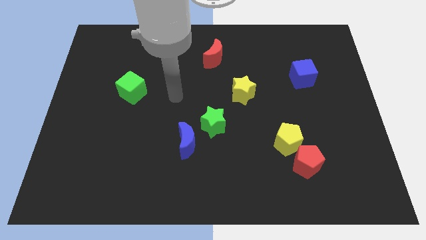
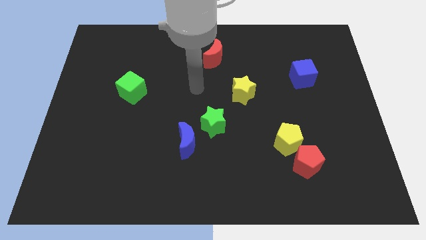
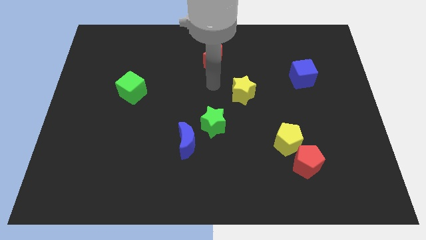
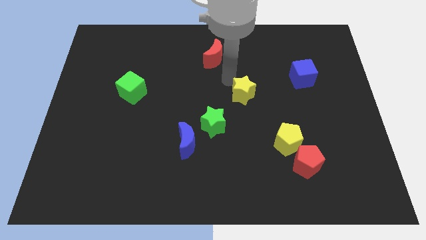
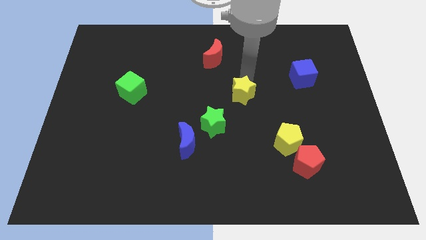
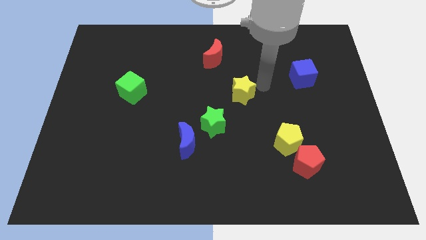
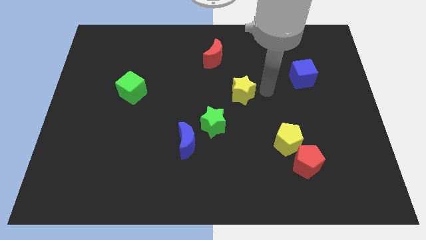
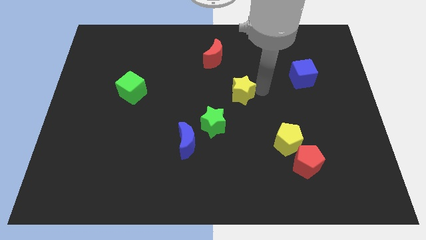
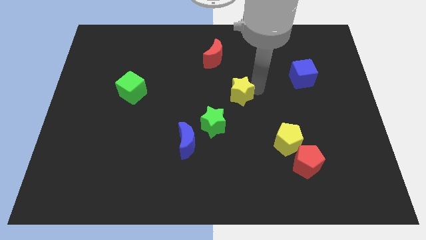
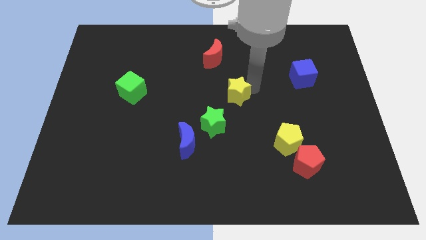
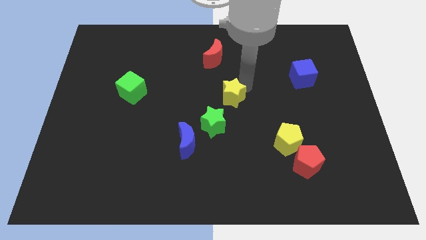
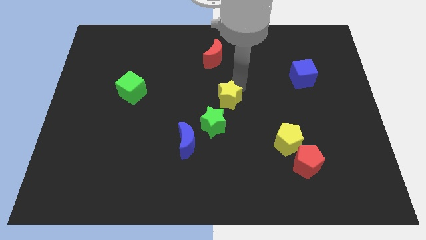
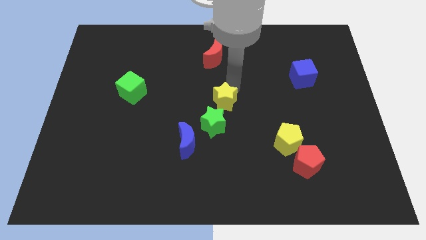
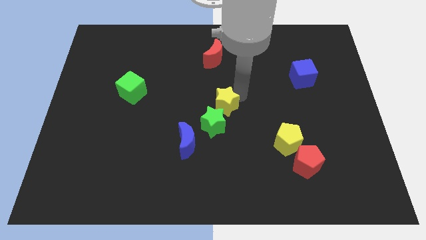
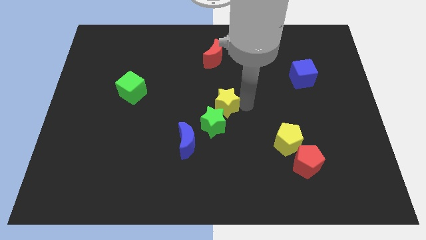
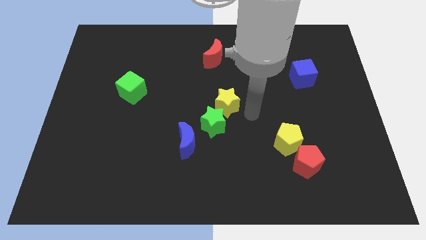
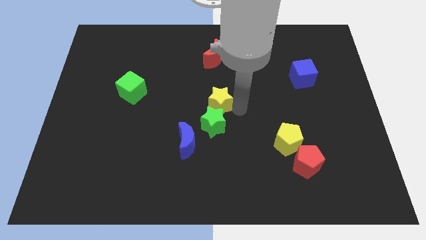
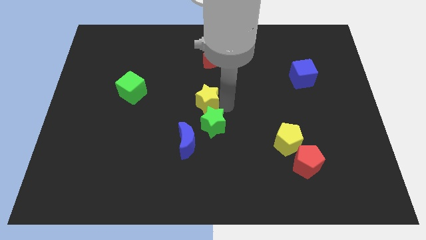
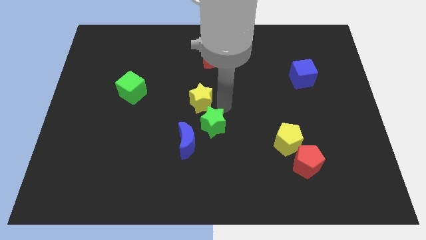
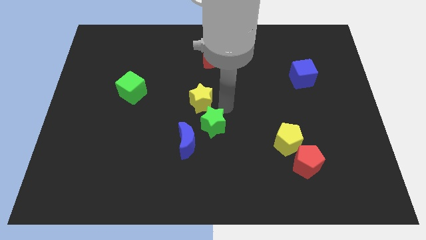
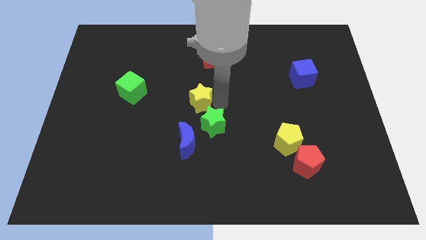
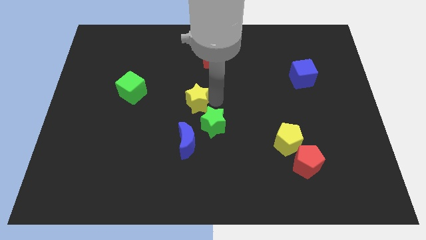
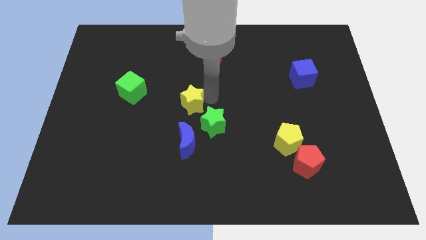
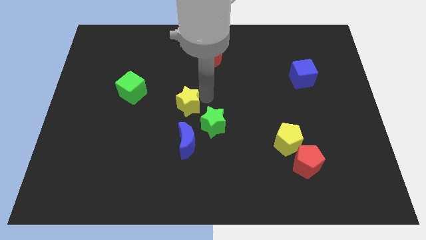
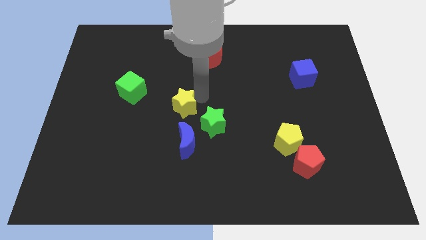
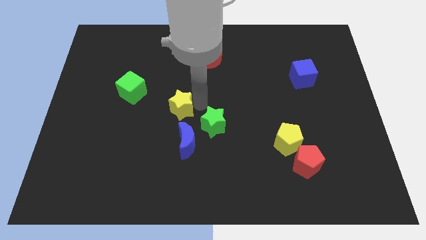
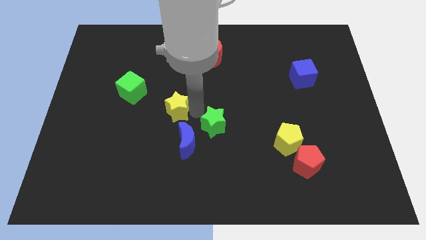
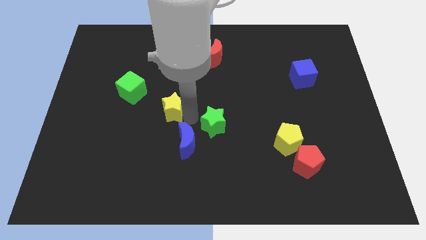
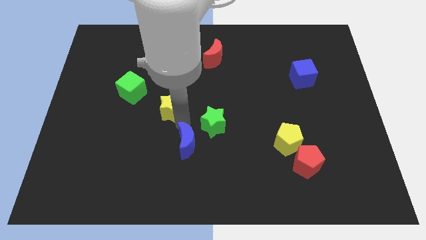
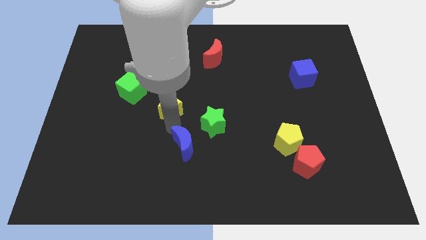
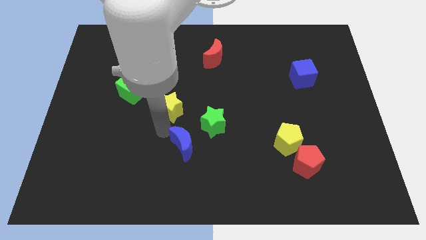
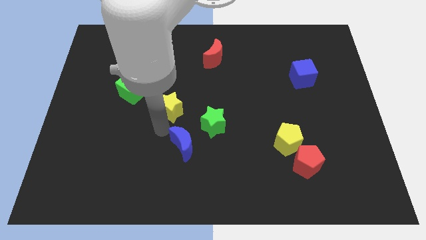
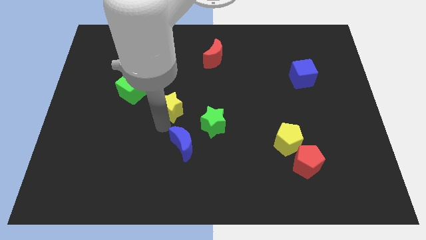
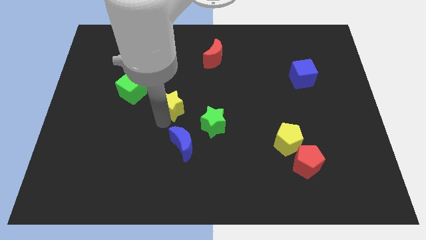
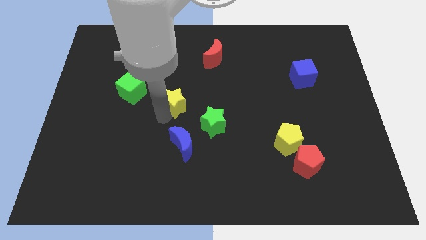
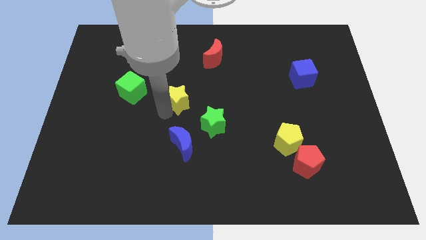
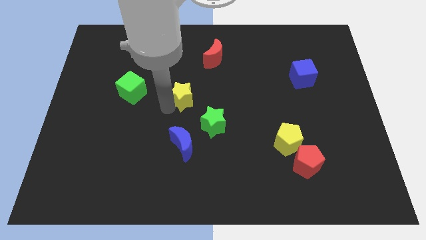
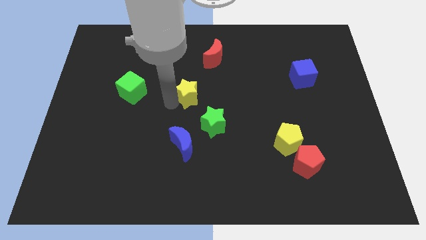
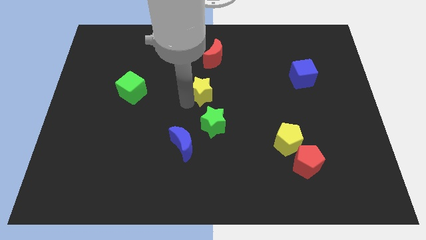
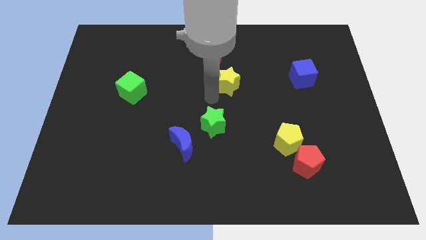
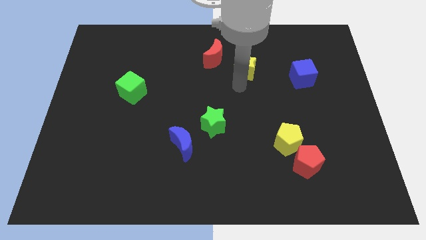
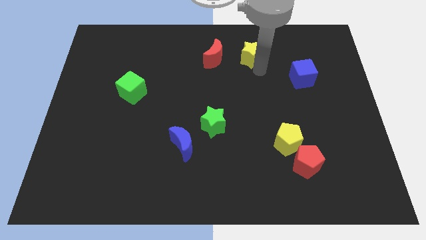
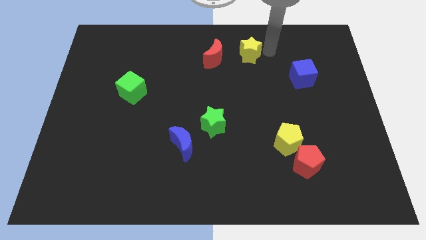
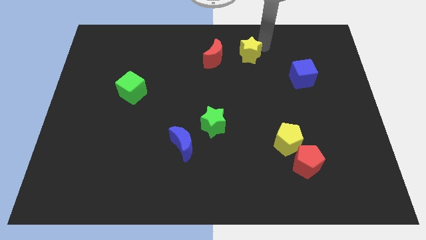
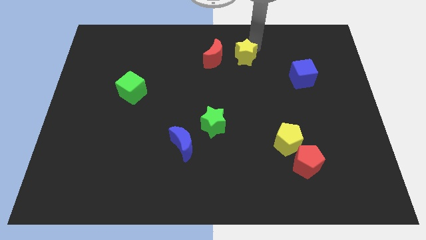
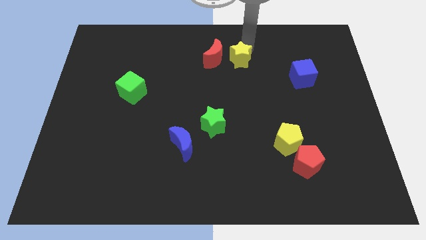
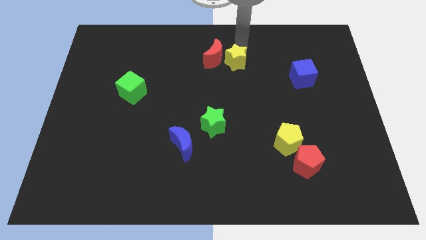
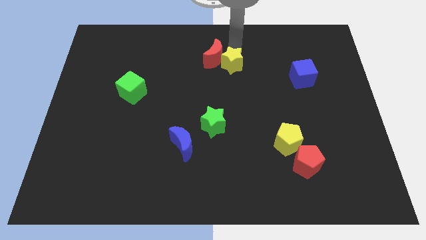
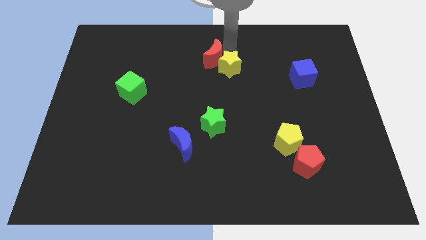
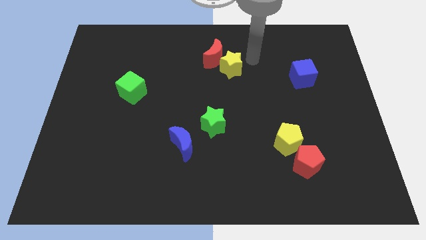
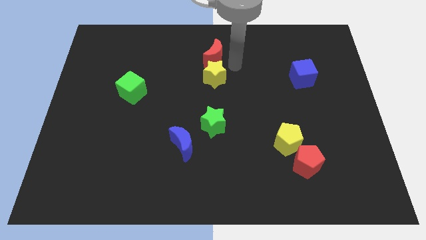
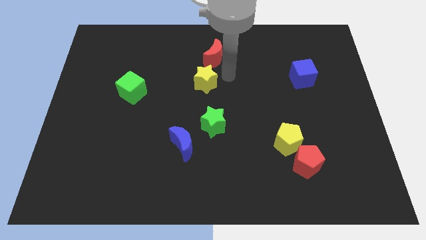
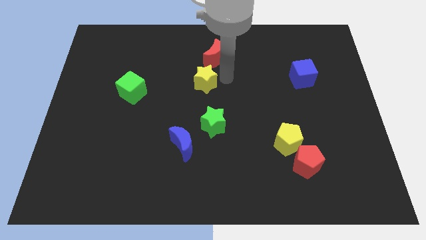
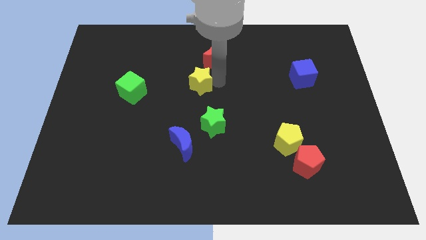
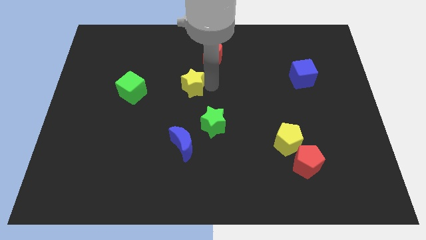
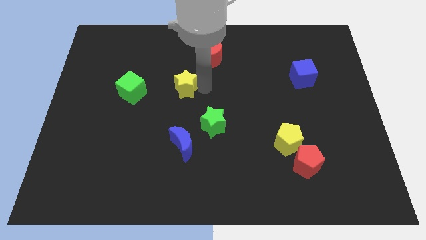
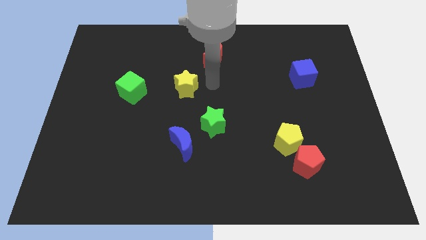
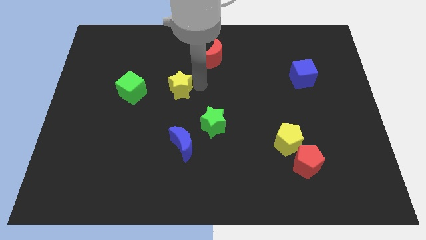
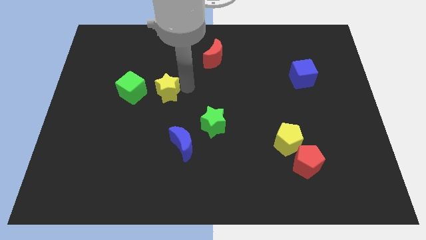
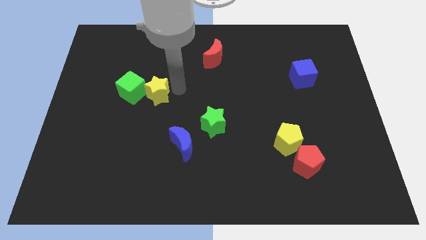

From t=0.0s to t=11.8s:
slide the yellow star towards the green cube

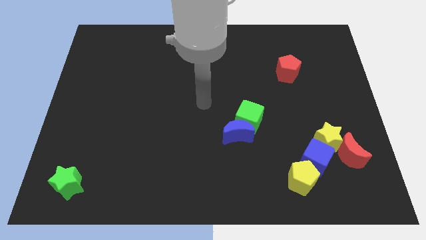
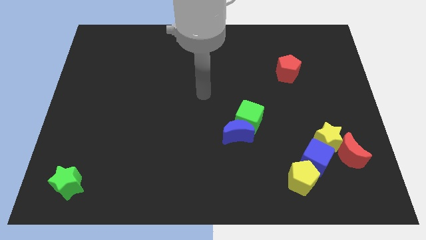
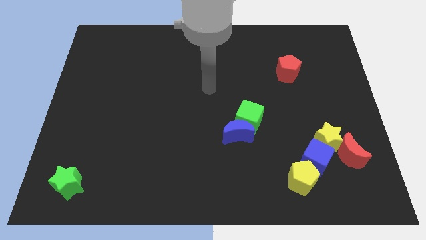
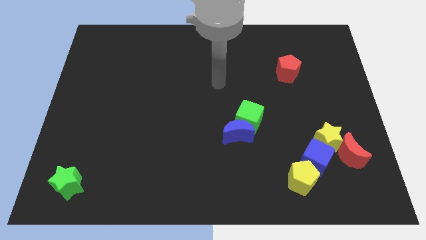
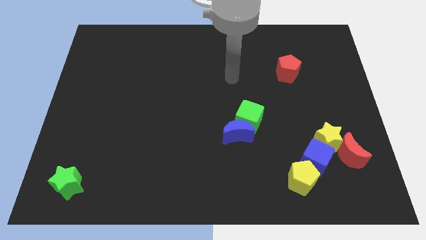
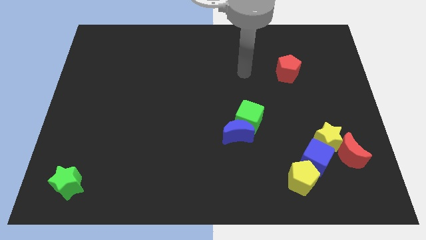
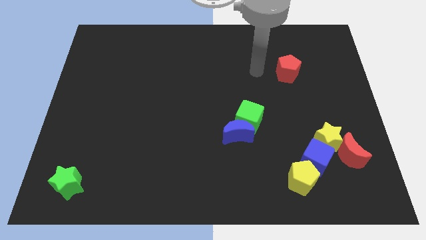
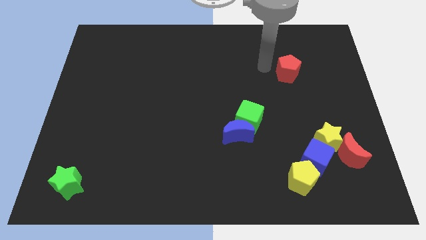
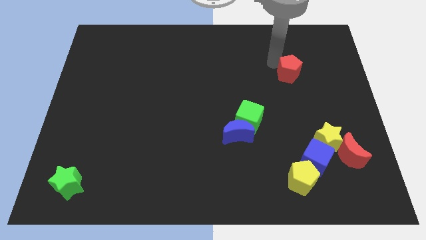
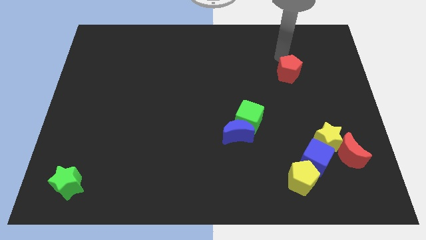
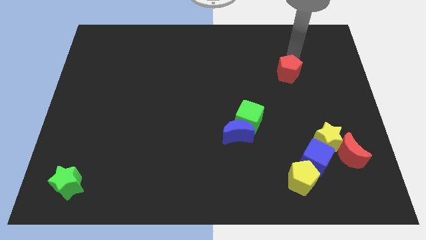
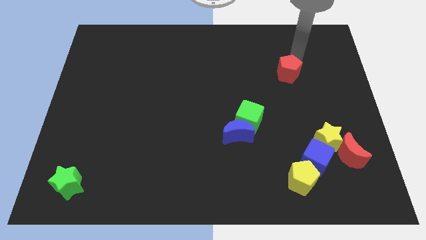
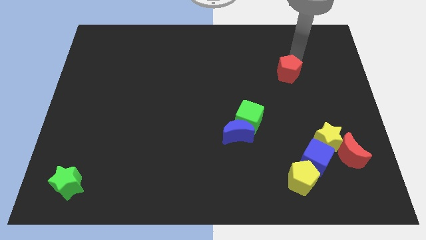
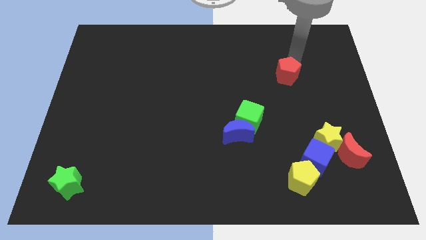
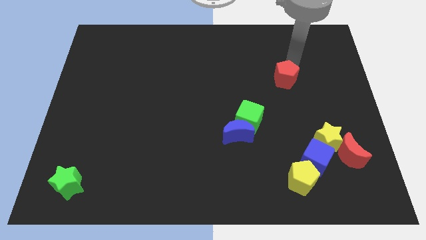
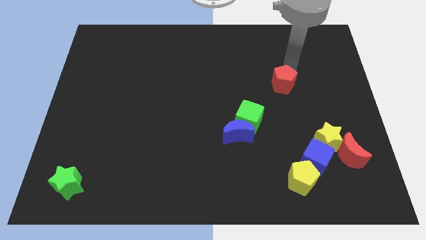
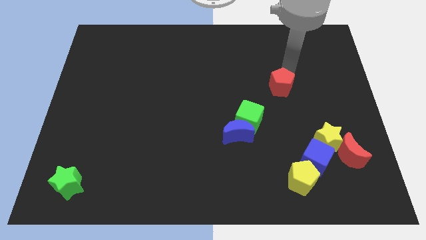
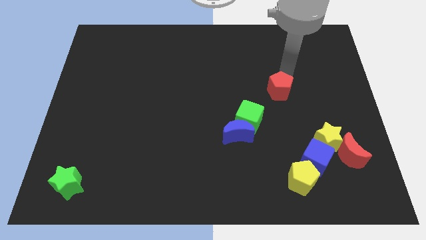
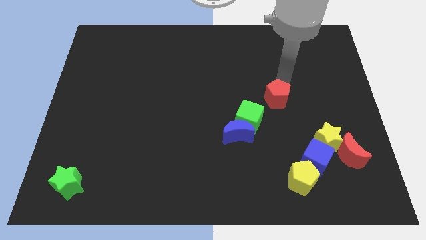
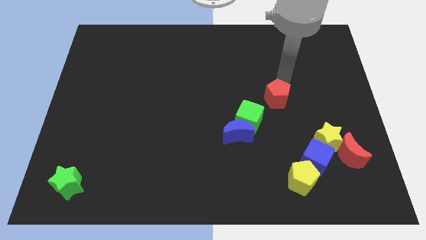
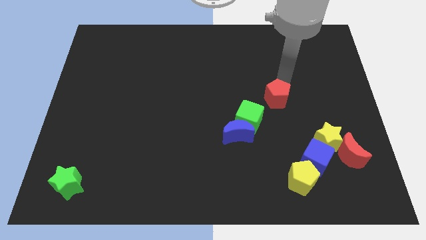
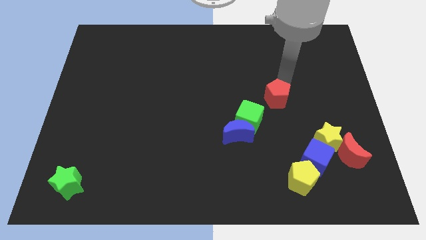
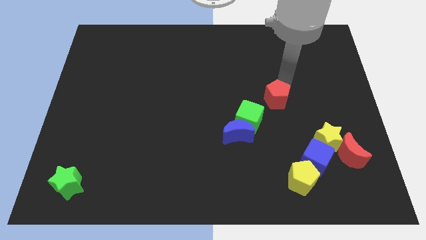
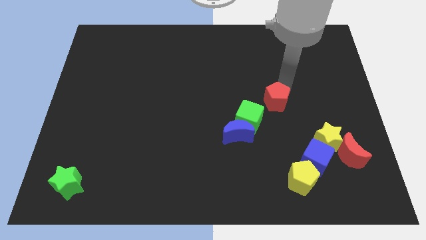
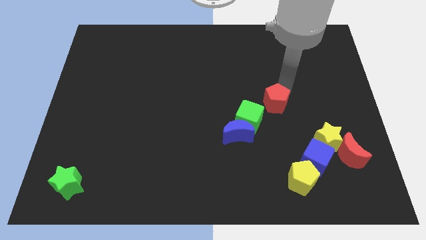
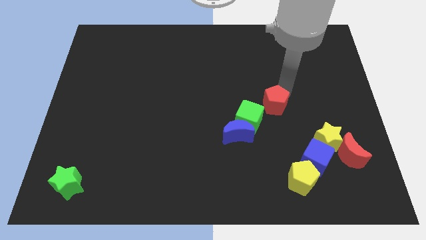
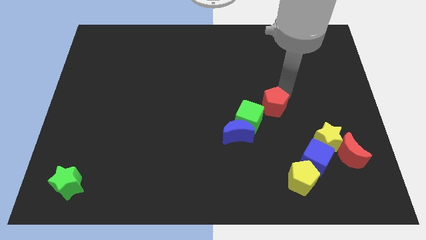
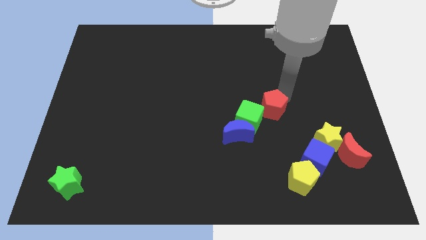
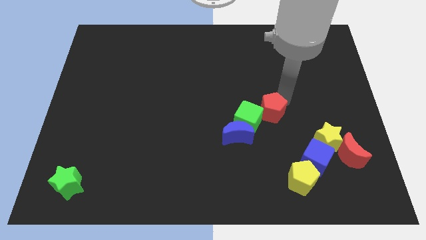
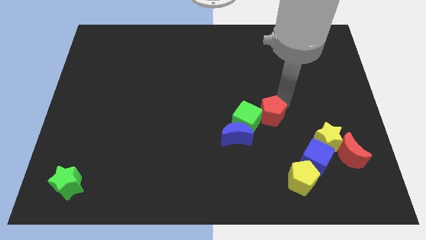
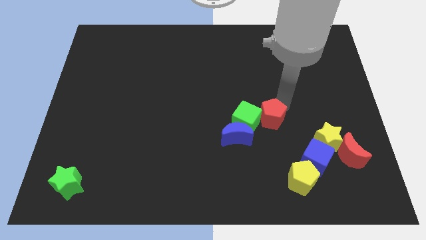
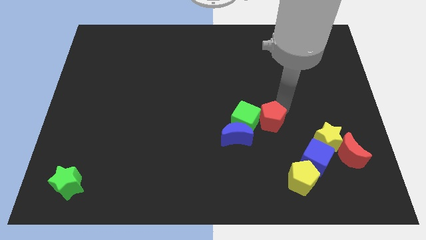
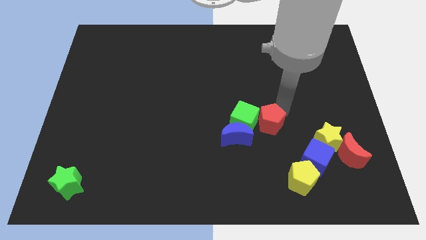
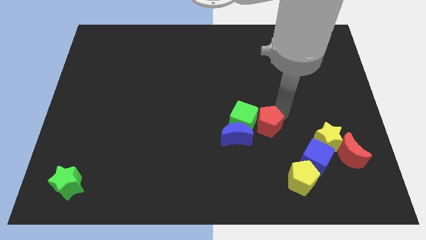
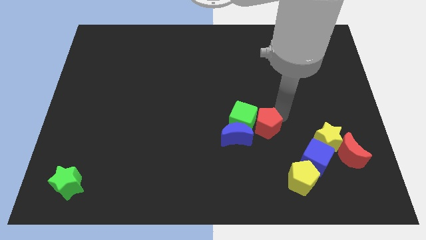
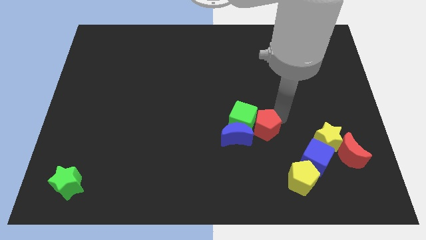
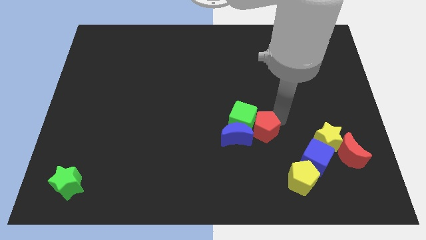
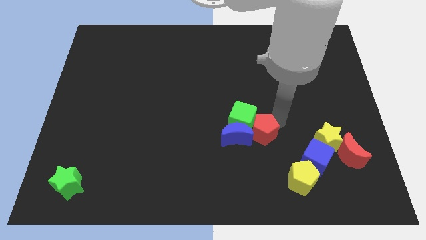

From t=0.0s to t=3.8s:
move the red pentagon to the blue moon
